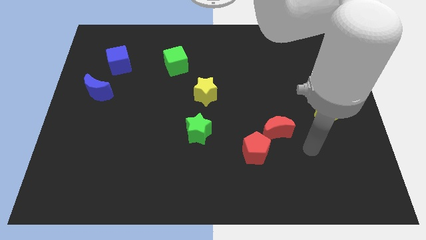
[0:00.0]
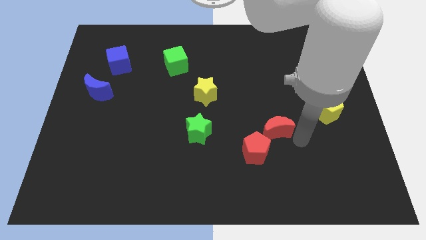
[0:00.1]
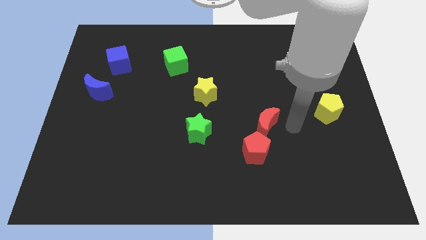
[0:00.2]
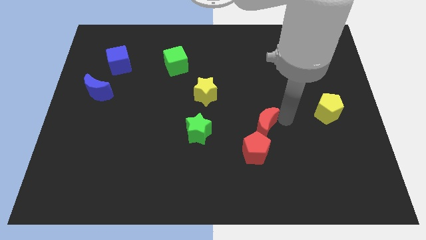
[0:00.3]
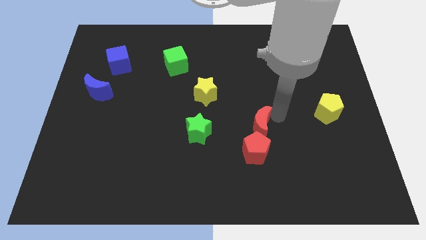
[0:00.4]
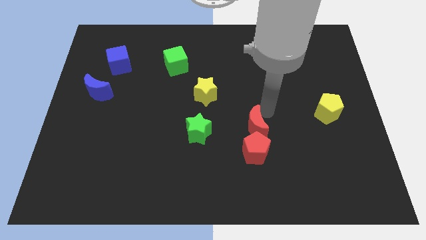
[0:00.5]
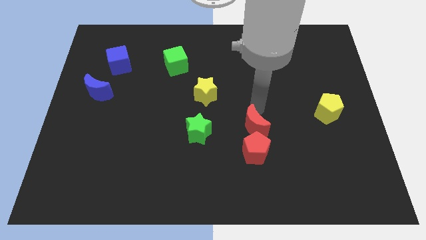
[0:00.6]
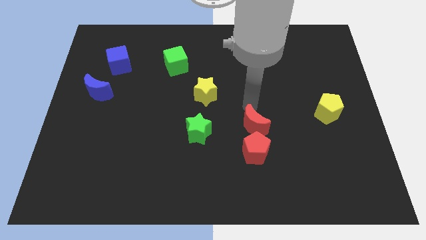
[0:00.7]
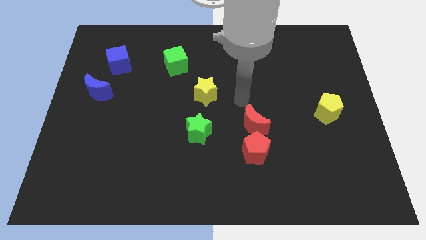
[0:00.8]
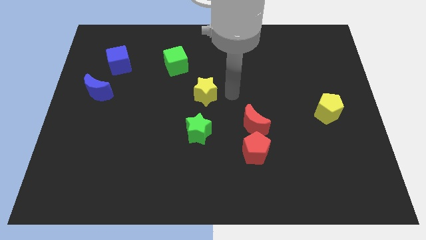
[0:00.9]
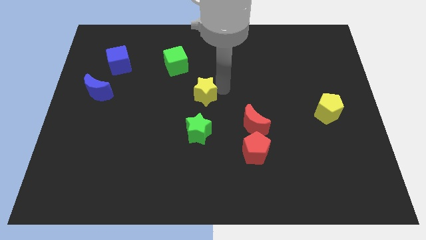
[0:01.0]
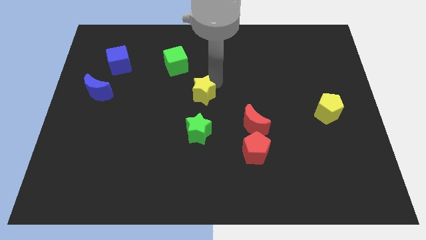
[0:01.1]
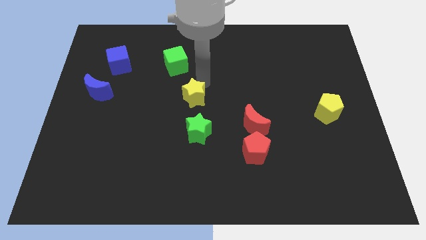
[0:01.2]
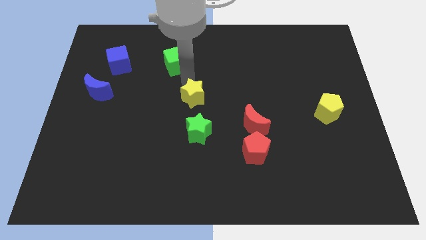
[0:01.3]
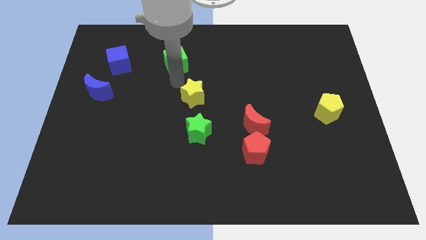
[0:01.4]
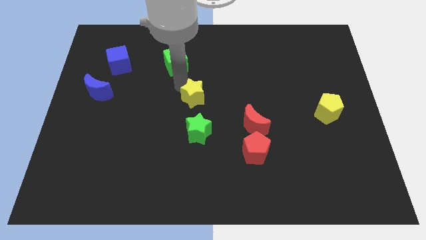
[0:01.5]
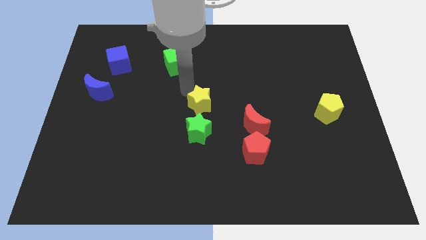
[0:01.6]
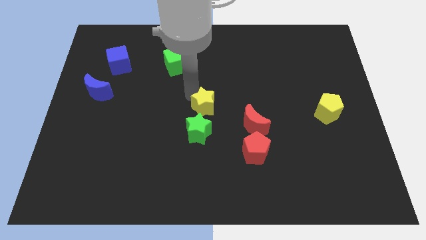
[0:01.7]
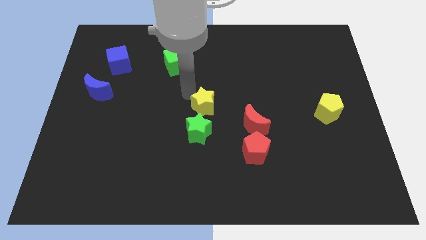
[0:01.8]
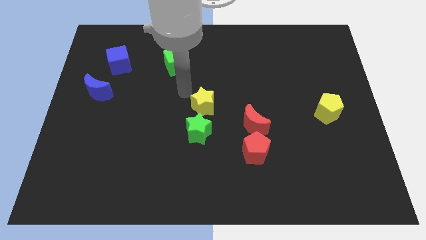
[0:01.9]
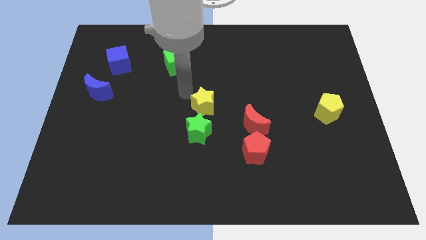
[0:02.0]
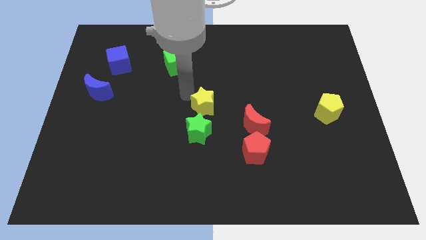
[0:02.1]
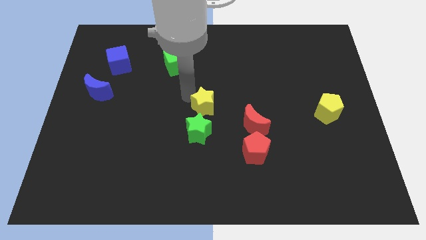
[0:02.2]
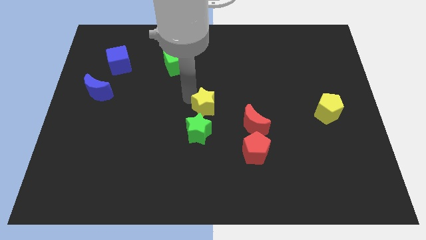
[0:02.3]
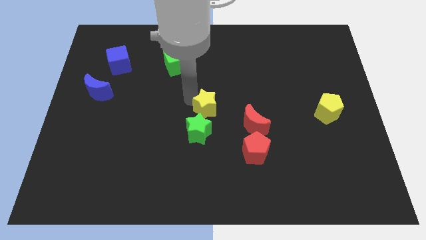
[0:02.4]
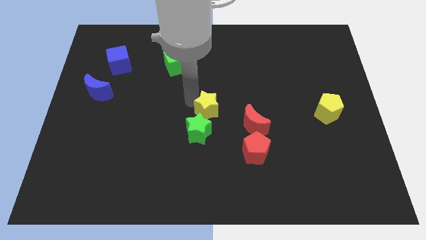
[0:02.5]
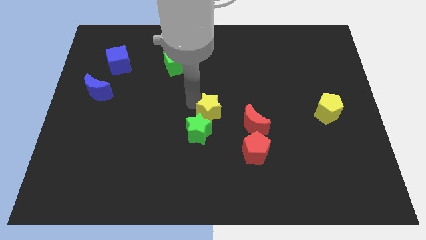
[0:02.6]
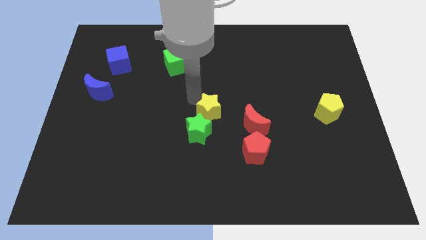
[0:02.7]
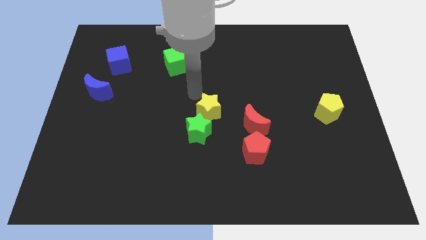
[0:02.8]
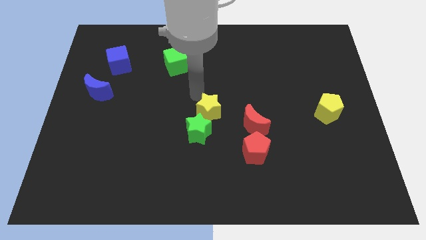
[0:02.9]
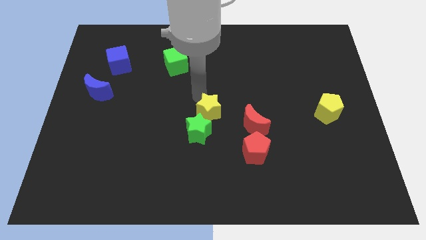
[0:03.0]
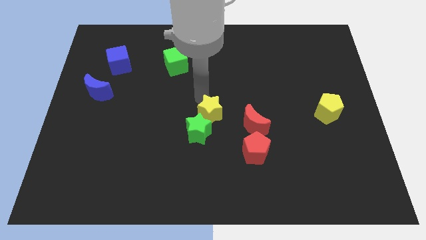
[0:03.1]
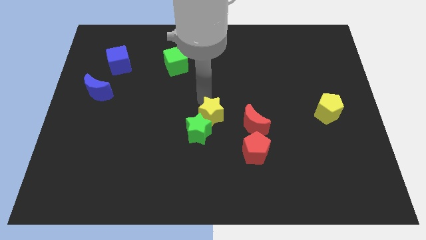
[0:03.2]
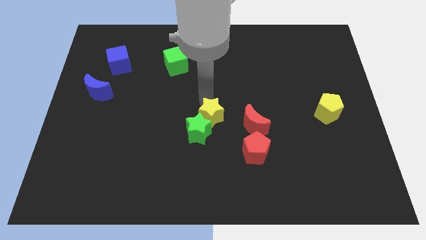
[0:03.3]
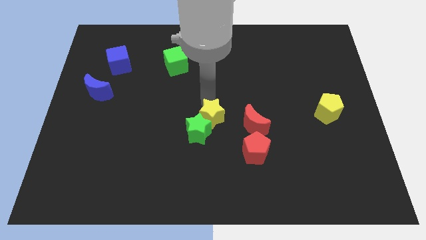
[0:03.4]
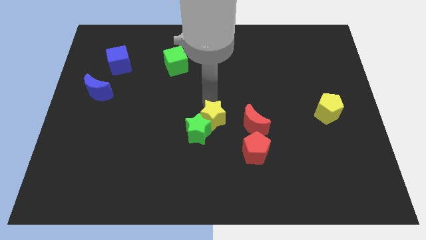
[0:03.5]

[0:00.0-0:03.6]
slide the yellow star downwards slightly

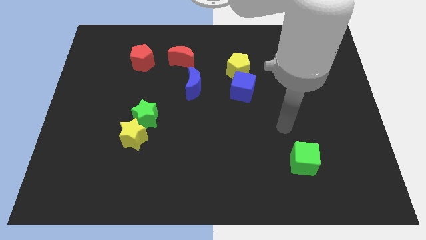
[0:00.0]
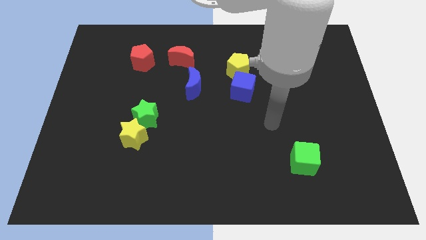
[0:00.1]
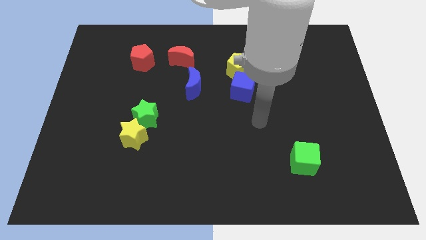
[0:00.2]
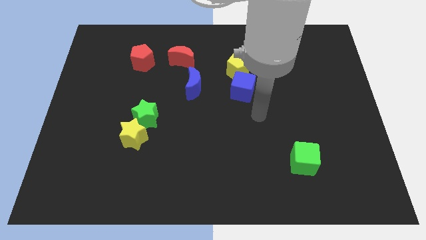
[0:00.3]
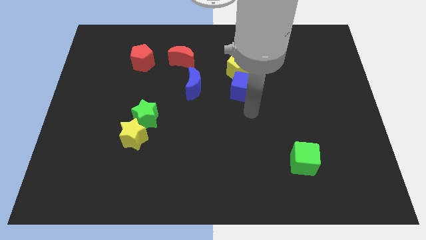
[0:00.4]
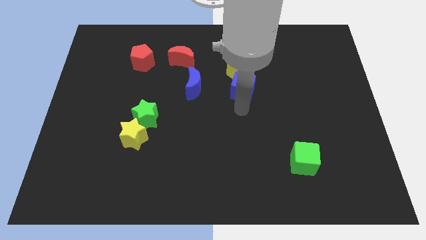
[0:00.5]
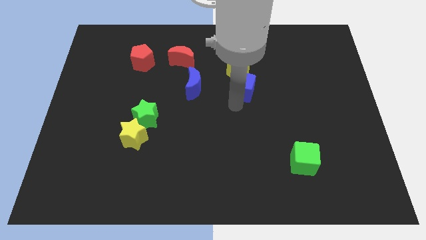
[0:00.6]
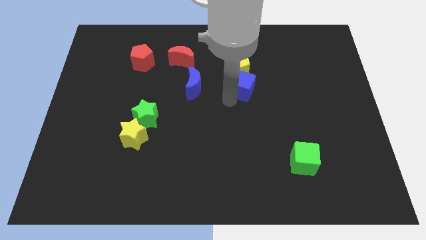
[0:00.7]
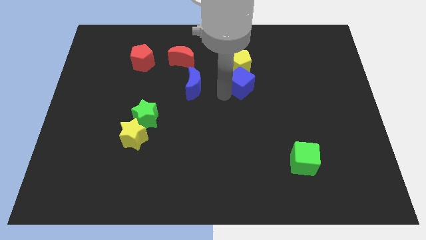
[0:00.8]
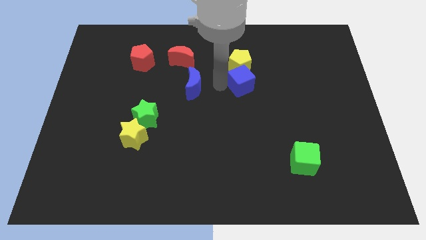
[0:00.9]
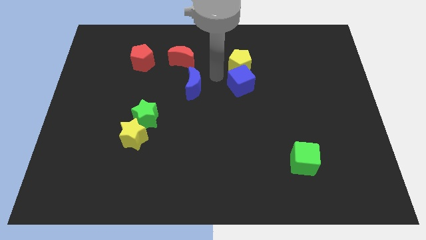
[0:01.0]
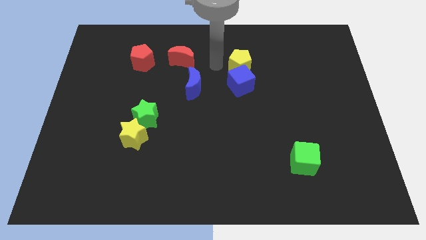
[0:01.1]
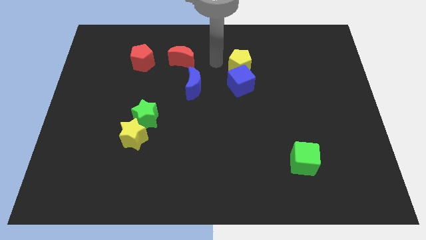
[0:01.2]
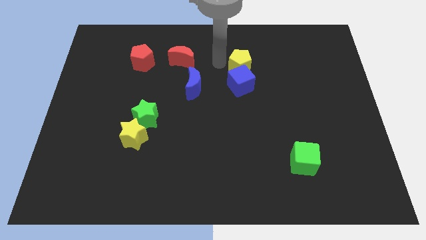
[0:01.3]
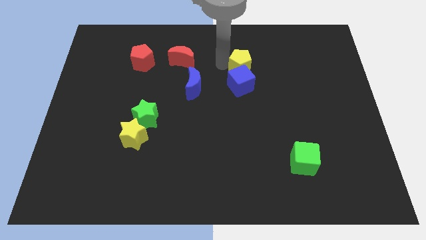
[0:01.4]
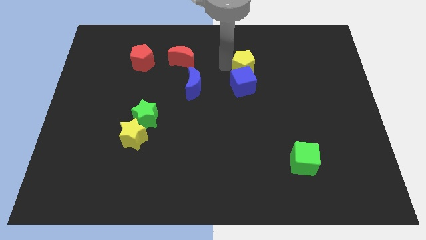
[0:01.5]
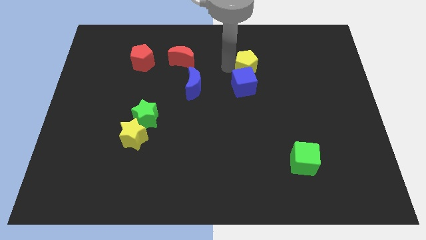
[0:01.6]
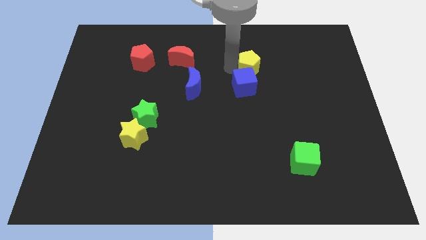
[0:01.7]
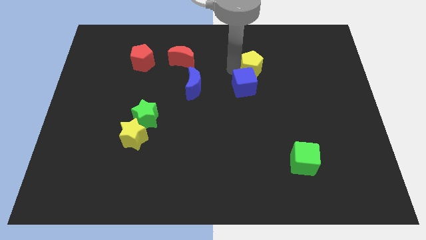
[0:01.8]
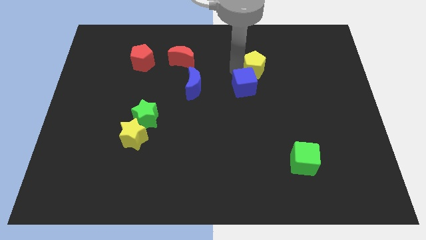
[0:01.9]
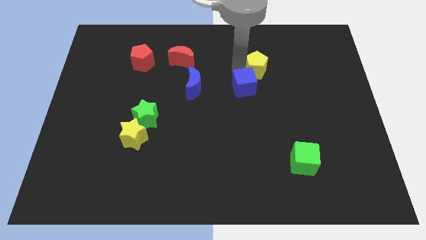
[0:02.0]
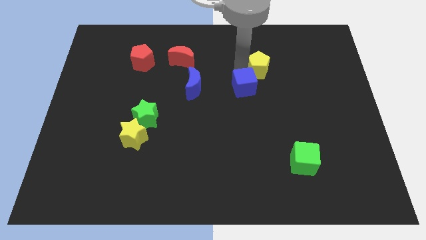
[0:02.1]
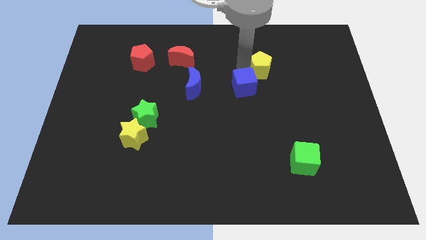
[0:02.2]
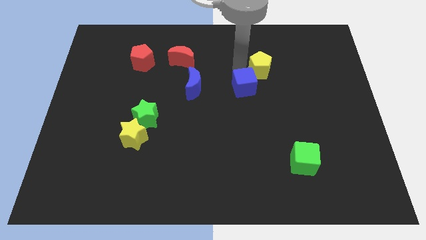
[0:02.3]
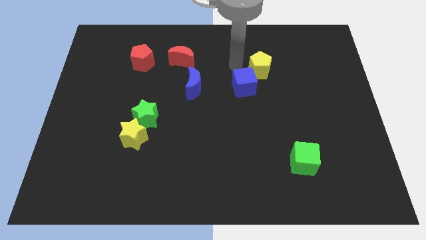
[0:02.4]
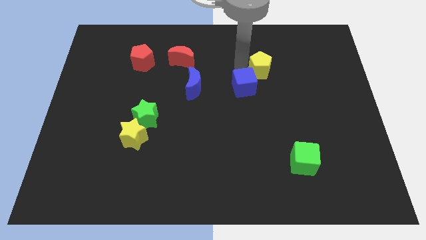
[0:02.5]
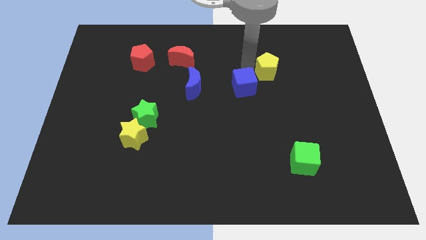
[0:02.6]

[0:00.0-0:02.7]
move the yellow pentagon to the right a little bit

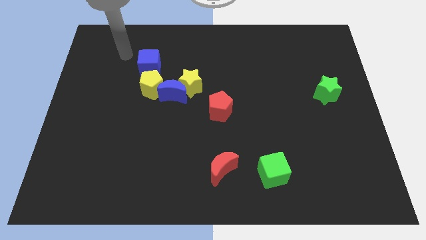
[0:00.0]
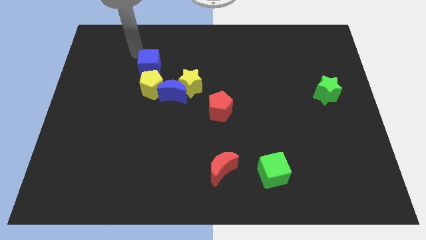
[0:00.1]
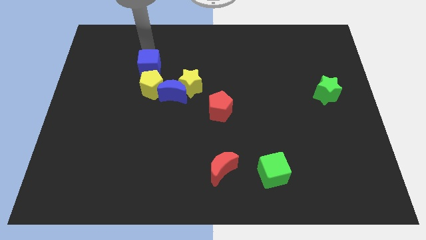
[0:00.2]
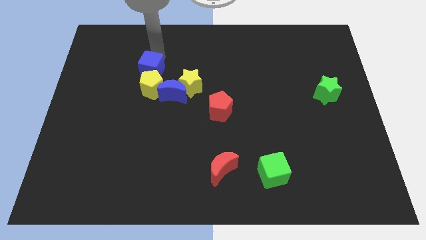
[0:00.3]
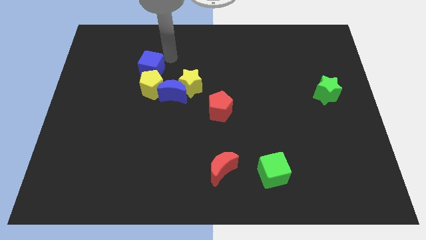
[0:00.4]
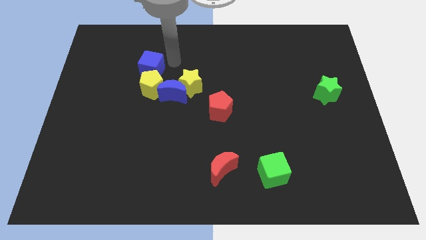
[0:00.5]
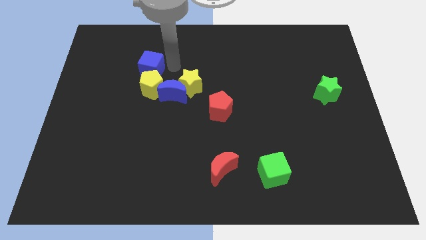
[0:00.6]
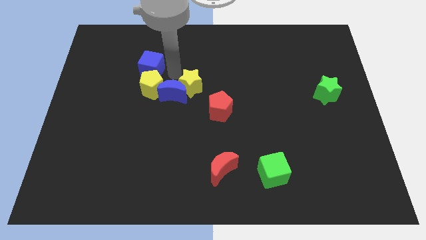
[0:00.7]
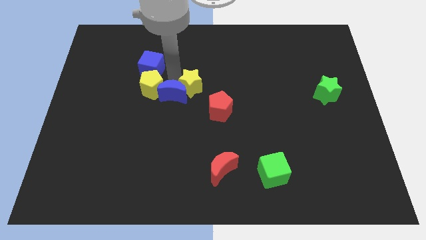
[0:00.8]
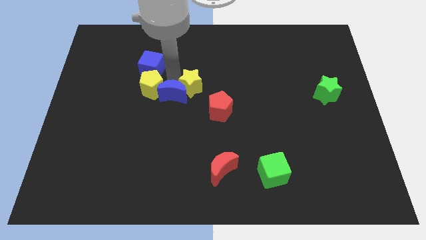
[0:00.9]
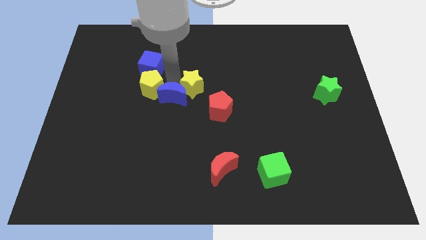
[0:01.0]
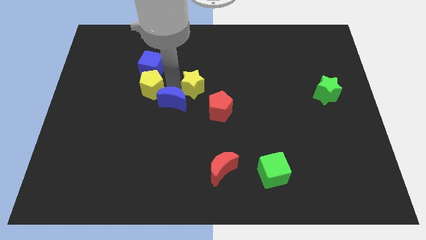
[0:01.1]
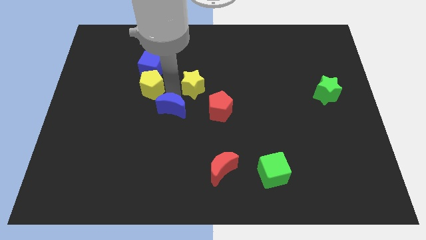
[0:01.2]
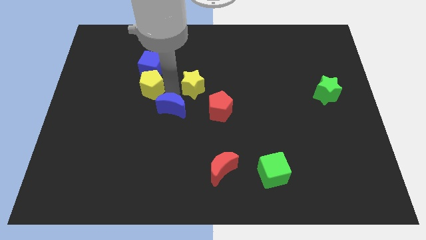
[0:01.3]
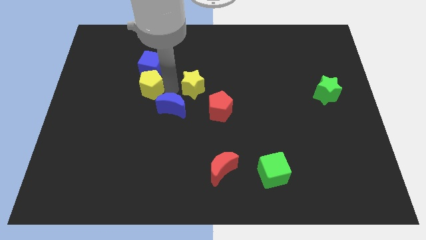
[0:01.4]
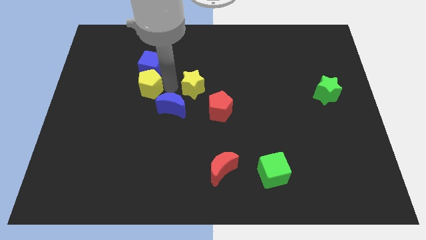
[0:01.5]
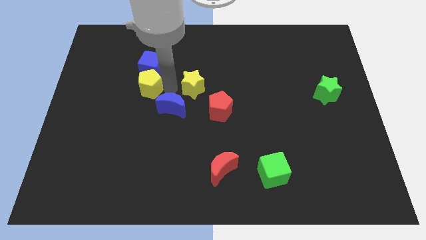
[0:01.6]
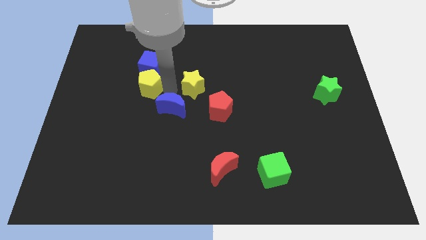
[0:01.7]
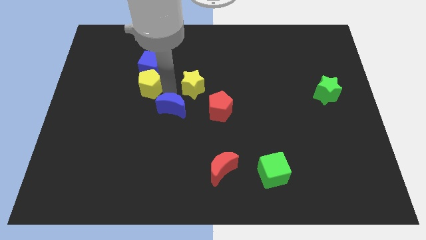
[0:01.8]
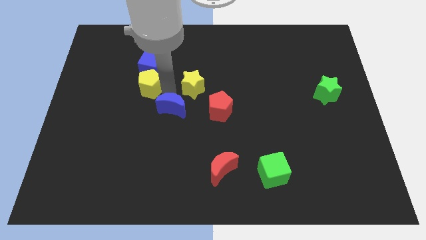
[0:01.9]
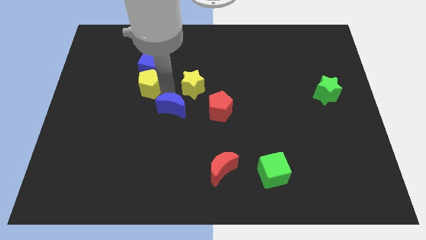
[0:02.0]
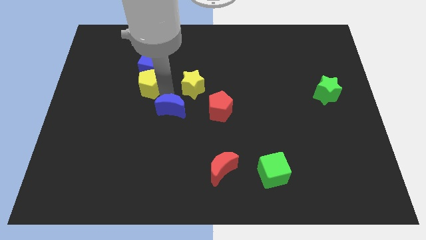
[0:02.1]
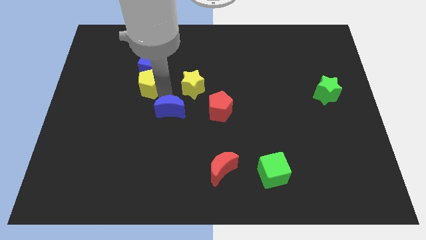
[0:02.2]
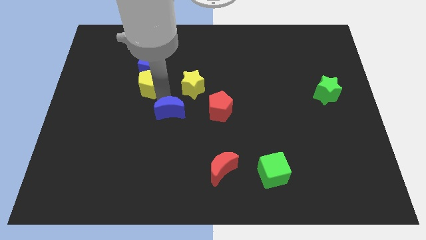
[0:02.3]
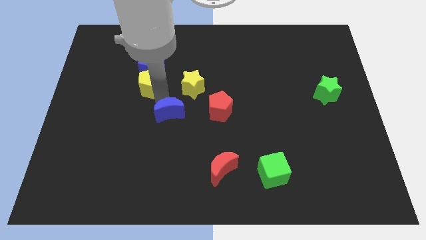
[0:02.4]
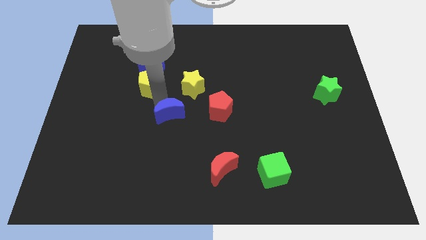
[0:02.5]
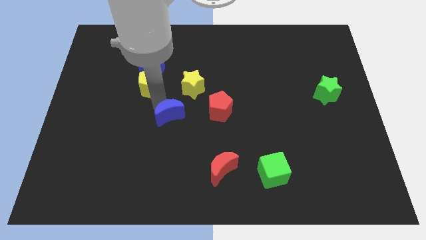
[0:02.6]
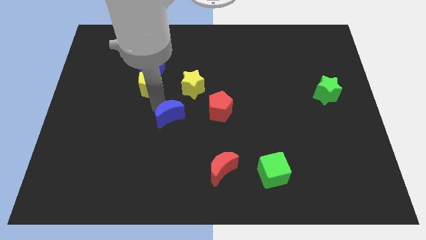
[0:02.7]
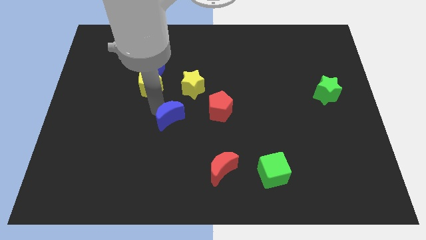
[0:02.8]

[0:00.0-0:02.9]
push the blue moon a little downwards
